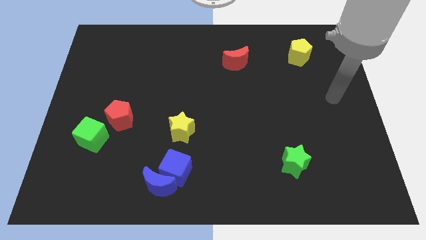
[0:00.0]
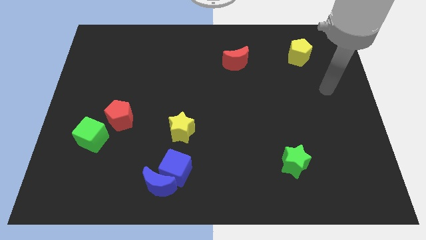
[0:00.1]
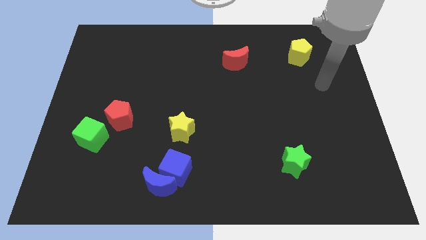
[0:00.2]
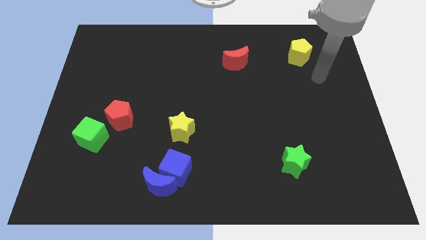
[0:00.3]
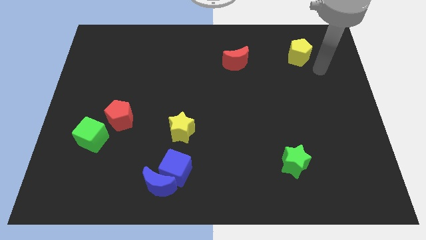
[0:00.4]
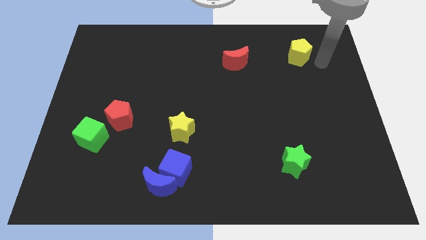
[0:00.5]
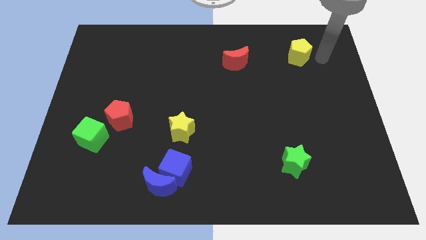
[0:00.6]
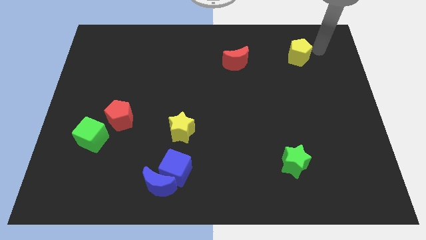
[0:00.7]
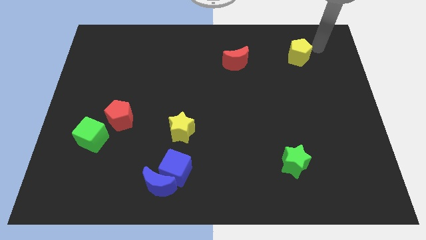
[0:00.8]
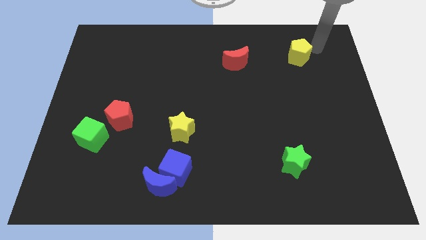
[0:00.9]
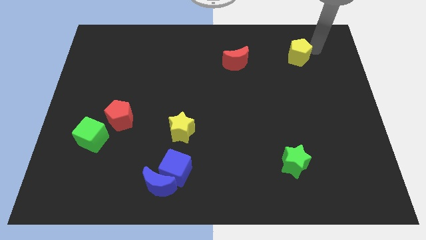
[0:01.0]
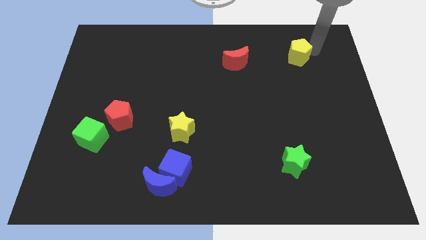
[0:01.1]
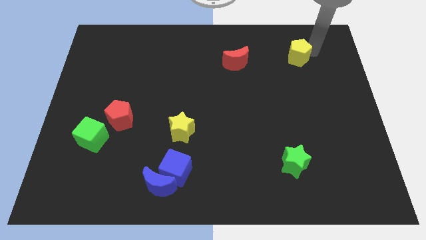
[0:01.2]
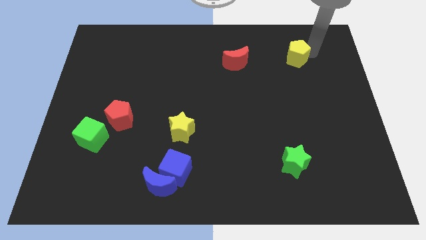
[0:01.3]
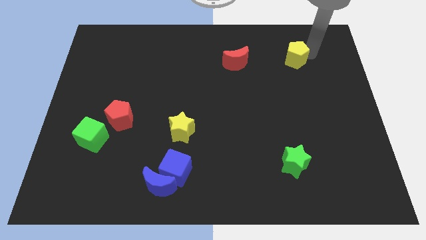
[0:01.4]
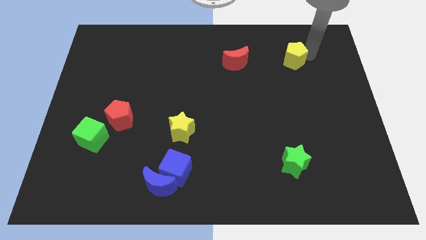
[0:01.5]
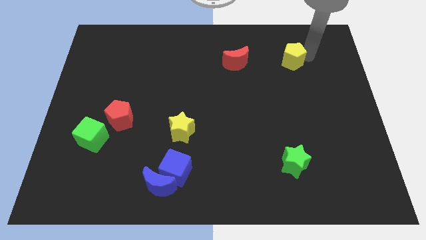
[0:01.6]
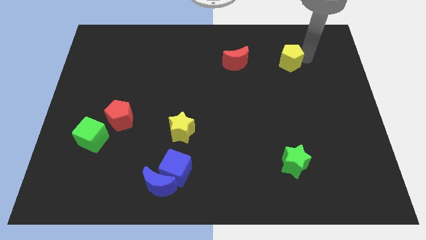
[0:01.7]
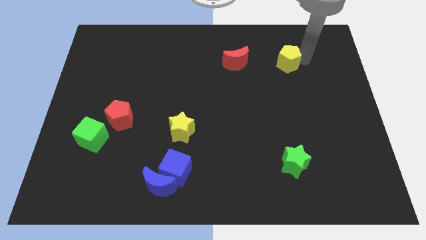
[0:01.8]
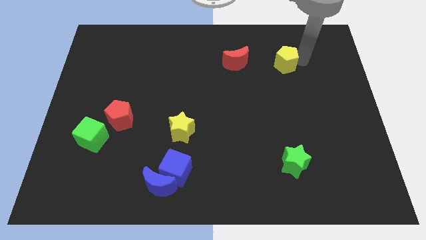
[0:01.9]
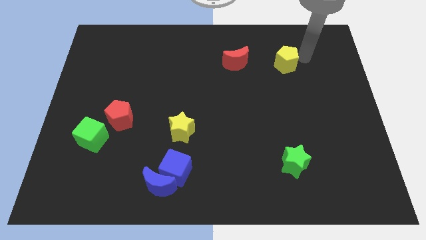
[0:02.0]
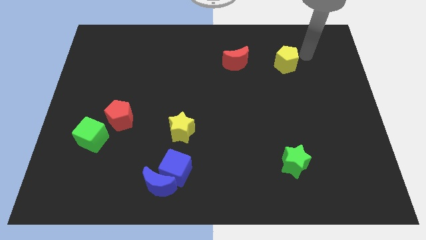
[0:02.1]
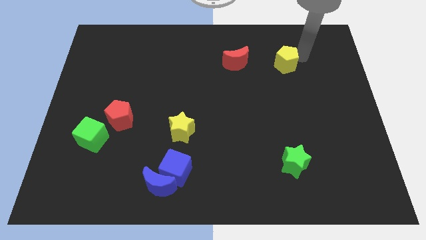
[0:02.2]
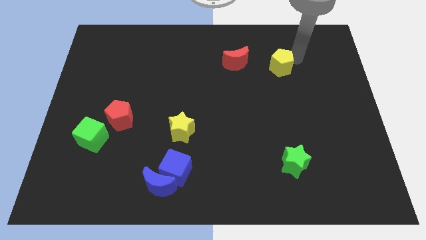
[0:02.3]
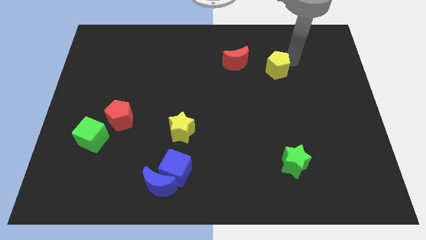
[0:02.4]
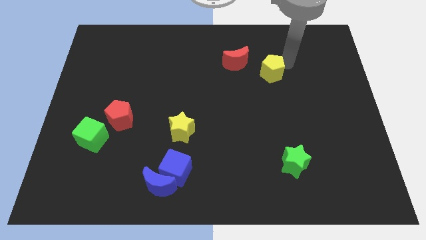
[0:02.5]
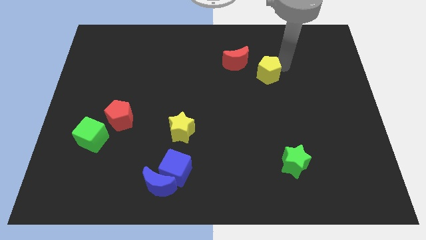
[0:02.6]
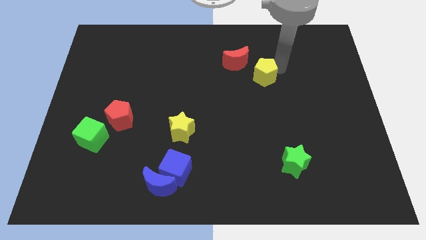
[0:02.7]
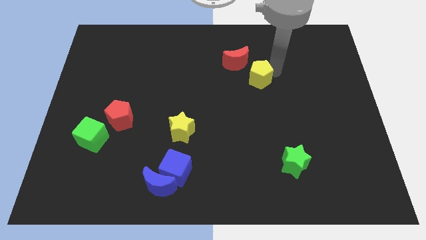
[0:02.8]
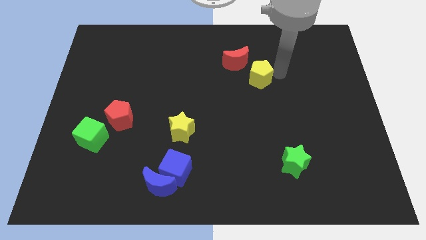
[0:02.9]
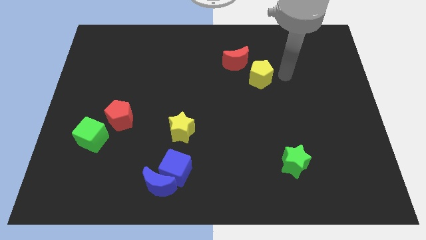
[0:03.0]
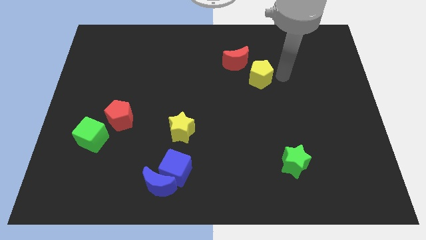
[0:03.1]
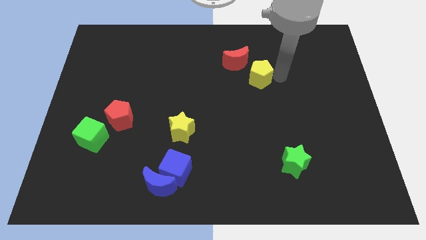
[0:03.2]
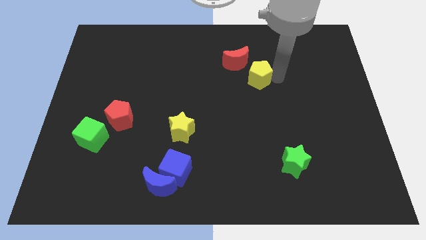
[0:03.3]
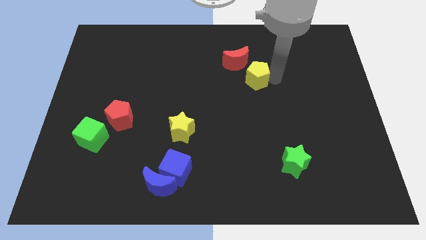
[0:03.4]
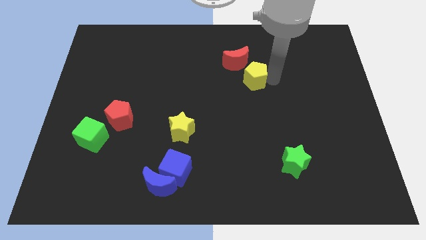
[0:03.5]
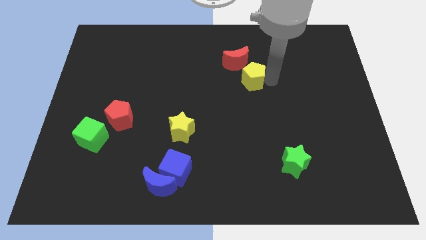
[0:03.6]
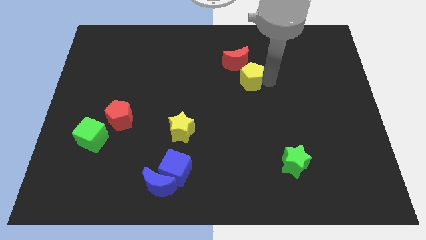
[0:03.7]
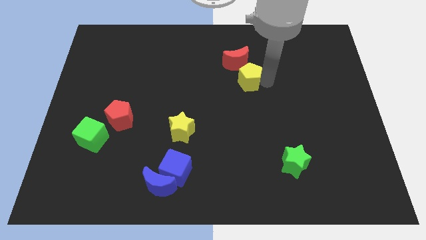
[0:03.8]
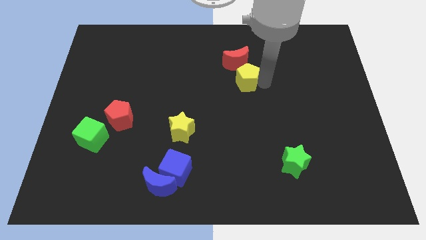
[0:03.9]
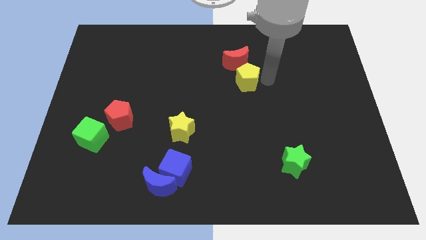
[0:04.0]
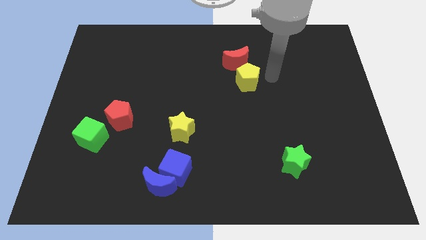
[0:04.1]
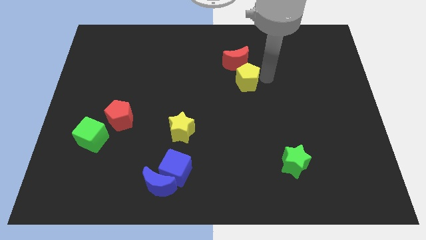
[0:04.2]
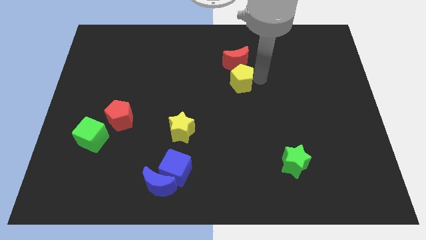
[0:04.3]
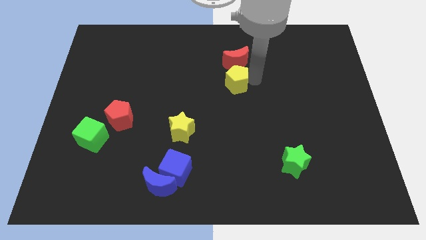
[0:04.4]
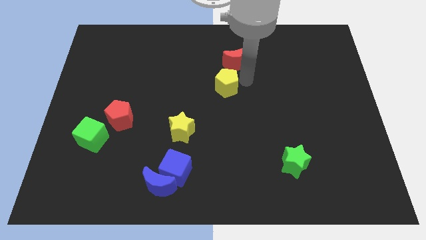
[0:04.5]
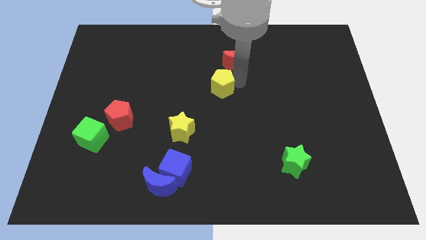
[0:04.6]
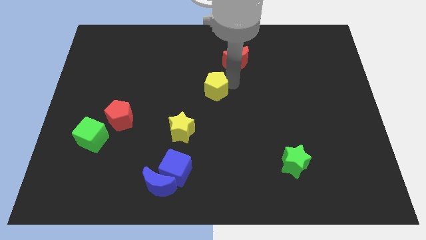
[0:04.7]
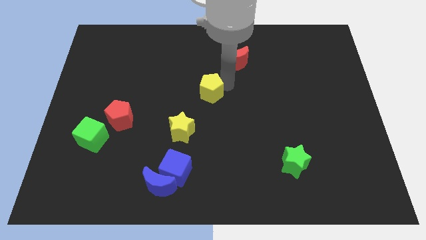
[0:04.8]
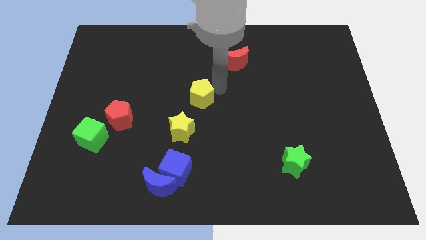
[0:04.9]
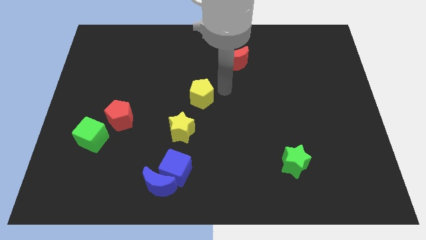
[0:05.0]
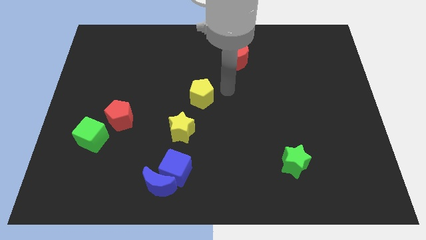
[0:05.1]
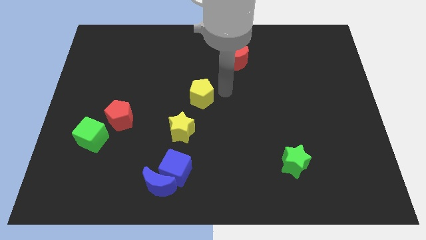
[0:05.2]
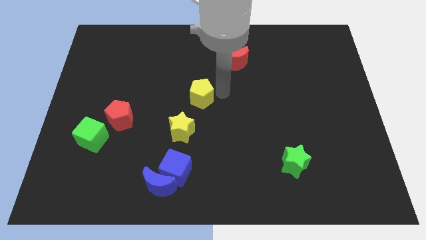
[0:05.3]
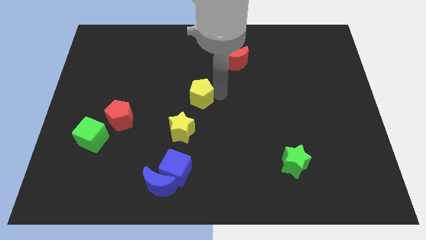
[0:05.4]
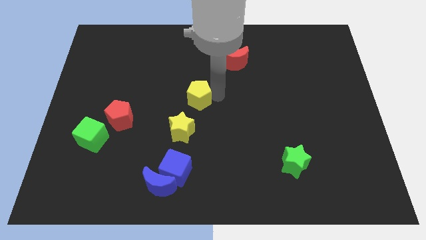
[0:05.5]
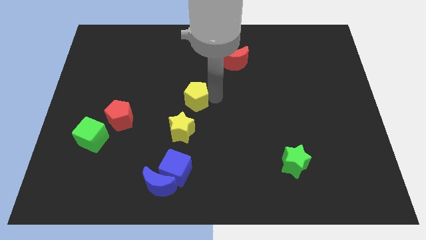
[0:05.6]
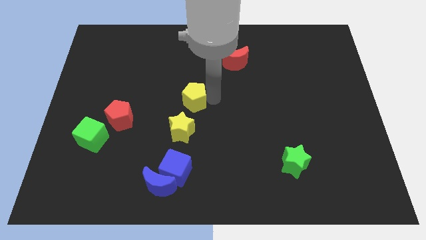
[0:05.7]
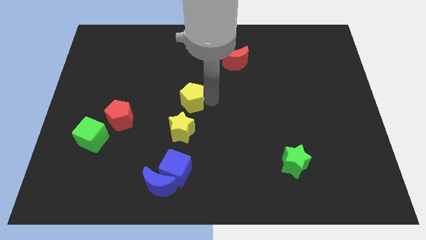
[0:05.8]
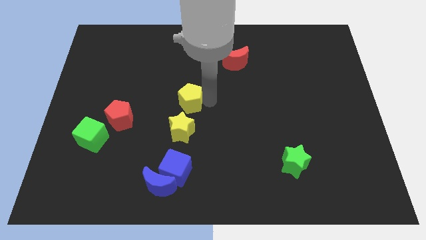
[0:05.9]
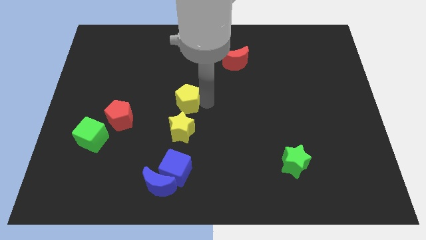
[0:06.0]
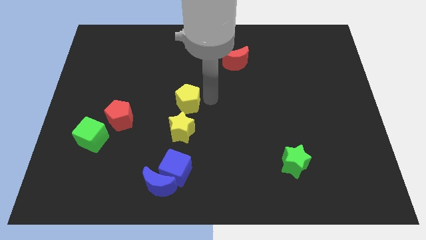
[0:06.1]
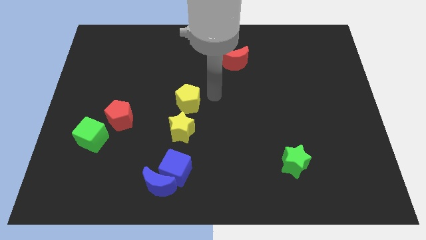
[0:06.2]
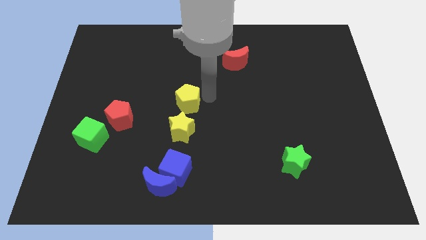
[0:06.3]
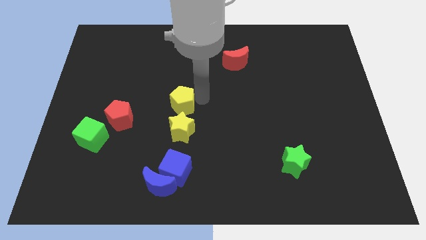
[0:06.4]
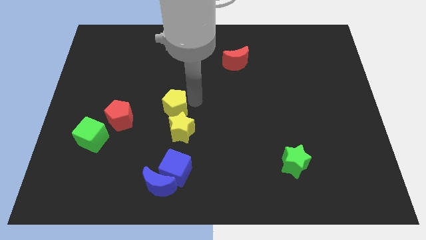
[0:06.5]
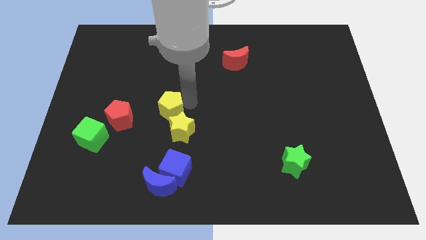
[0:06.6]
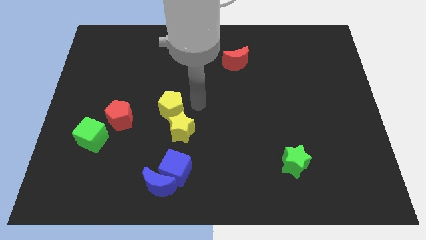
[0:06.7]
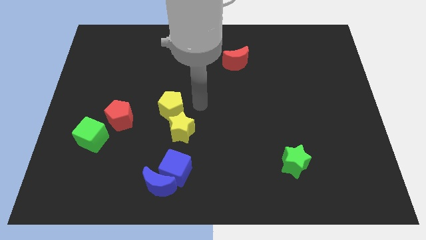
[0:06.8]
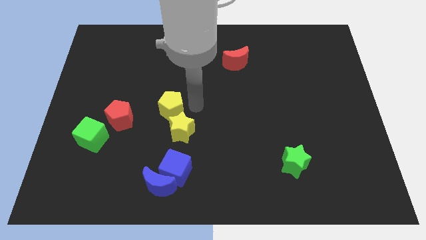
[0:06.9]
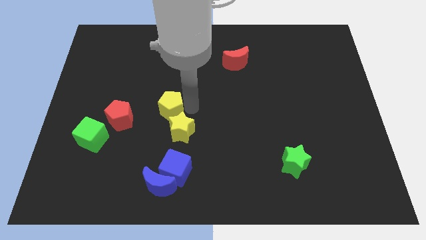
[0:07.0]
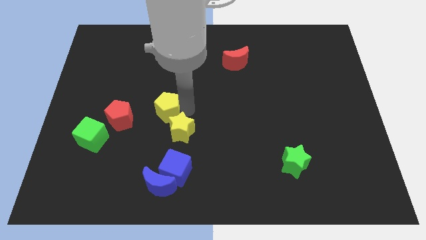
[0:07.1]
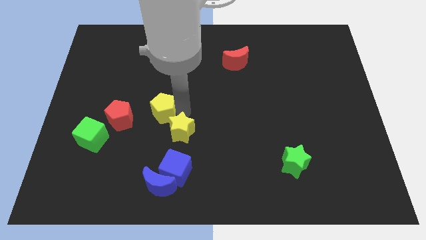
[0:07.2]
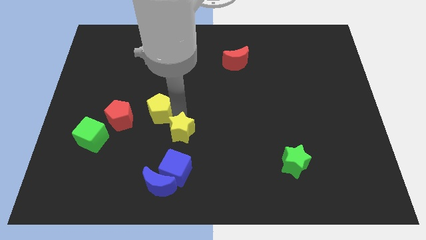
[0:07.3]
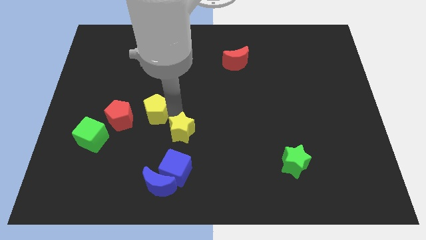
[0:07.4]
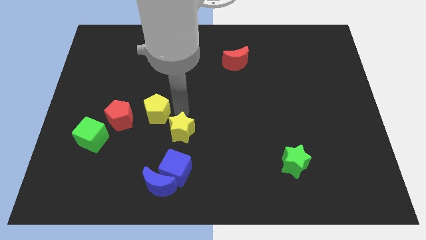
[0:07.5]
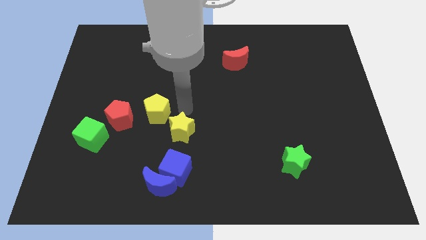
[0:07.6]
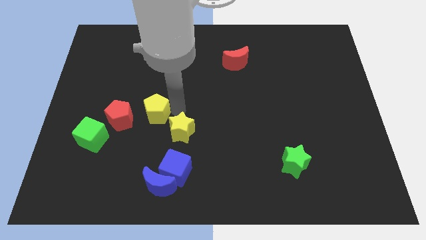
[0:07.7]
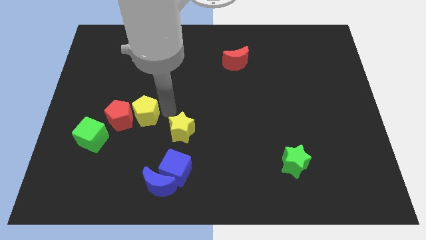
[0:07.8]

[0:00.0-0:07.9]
put the yellow pentagon next to the red pentagon
